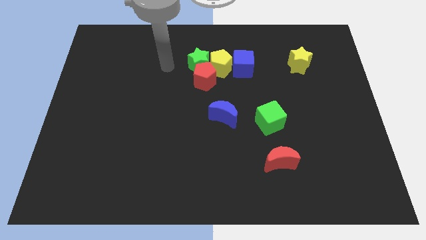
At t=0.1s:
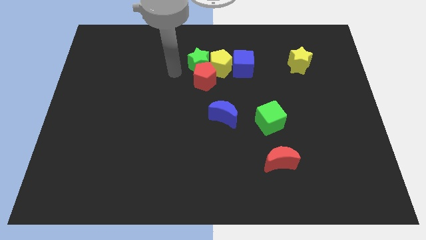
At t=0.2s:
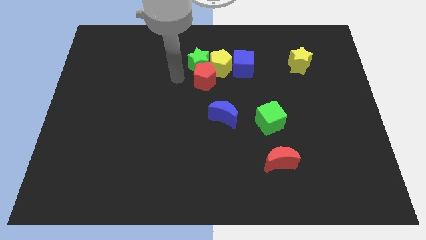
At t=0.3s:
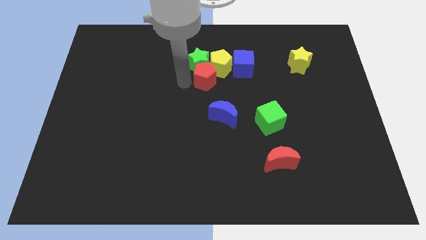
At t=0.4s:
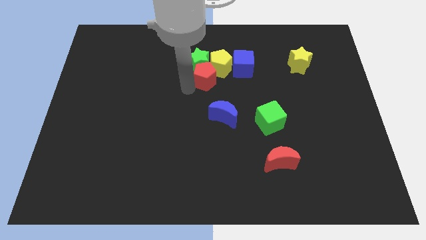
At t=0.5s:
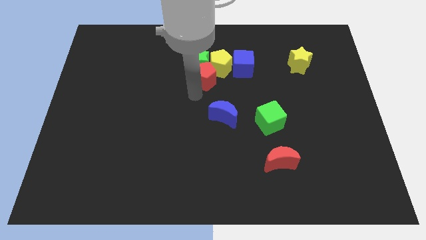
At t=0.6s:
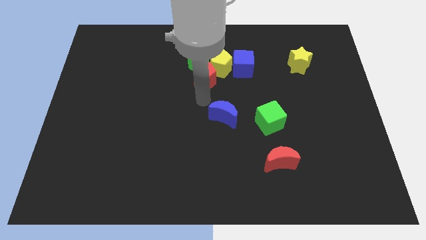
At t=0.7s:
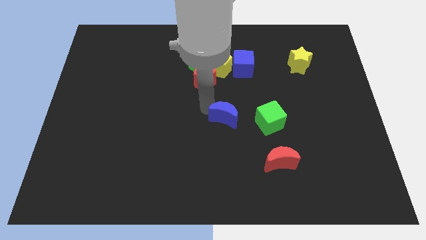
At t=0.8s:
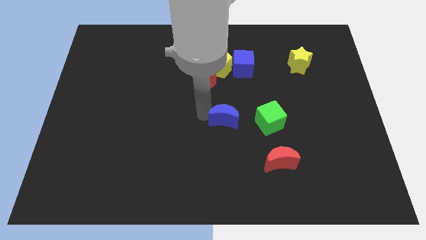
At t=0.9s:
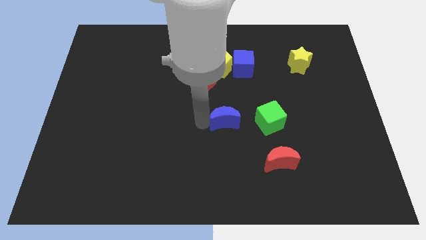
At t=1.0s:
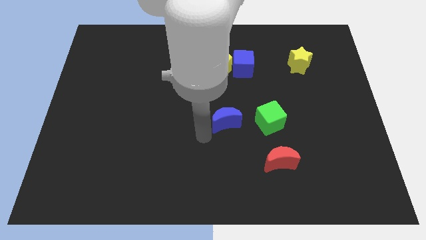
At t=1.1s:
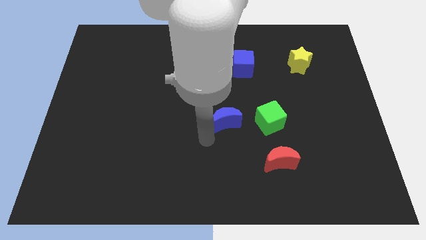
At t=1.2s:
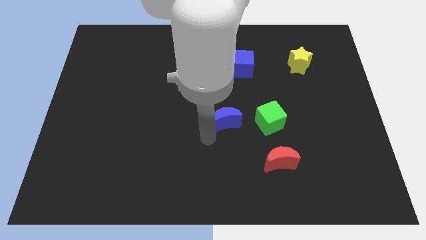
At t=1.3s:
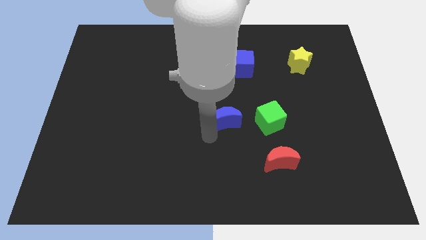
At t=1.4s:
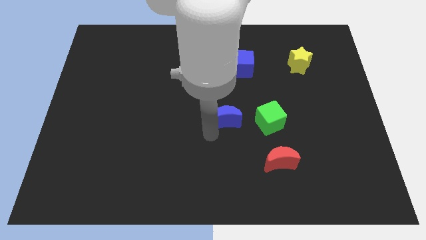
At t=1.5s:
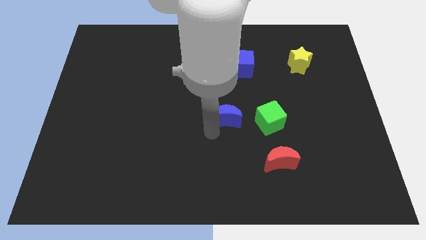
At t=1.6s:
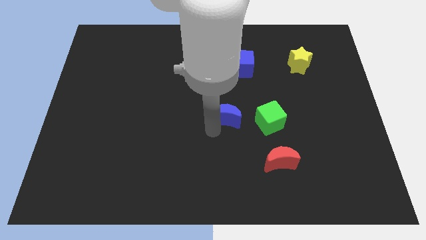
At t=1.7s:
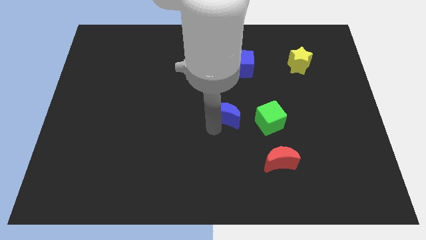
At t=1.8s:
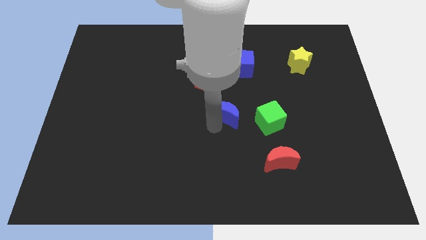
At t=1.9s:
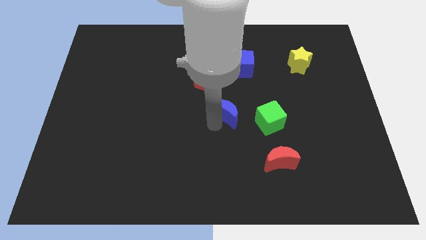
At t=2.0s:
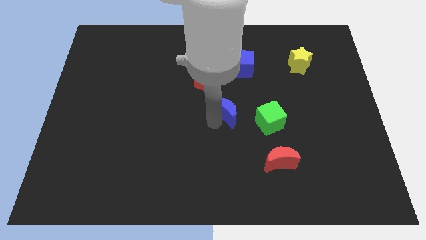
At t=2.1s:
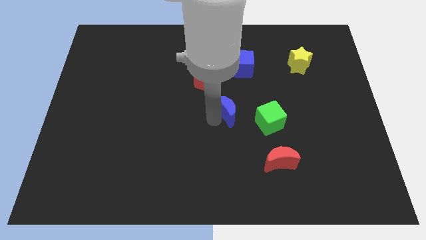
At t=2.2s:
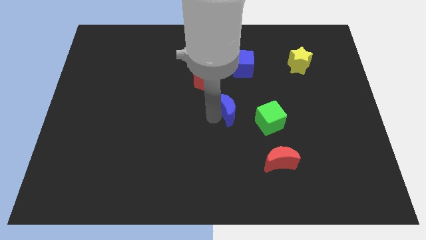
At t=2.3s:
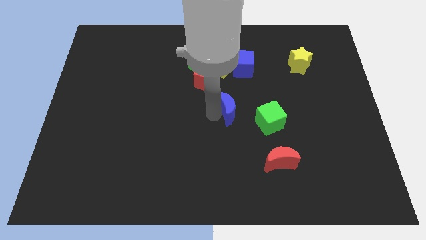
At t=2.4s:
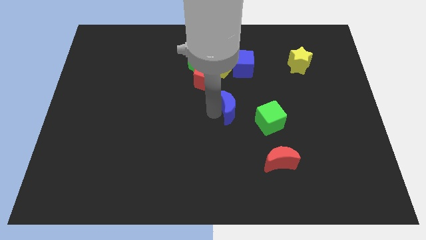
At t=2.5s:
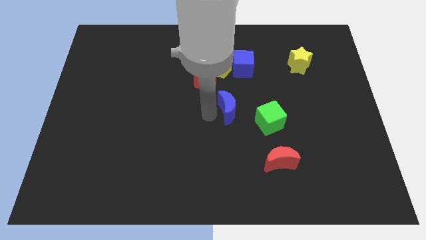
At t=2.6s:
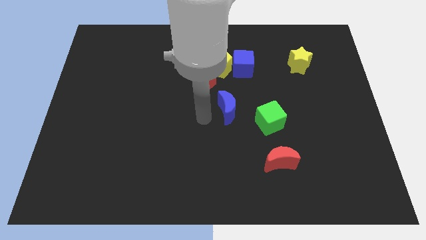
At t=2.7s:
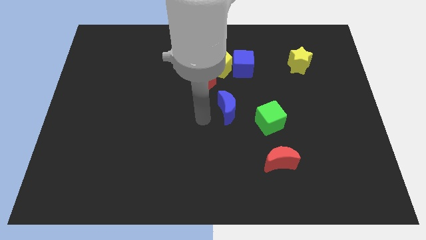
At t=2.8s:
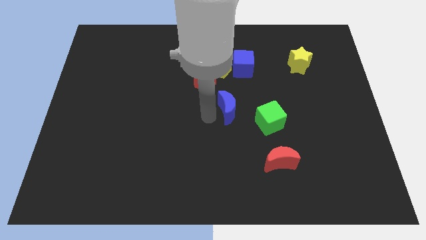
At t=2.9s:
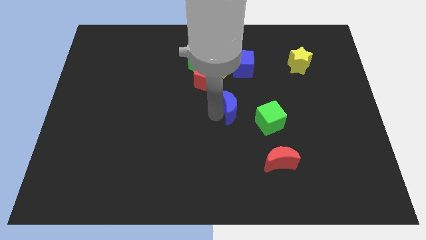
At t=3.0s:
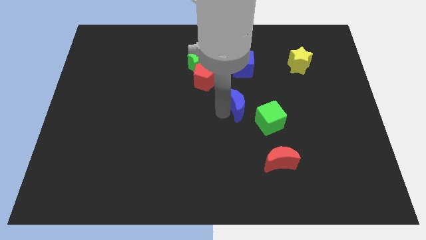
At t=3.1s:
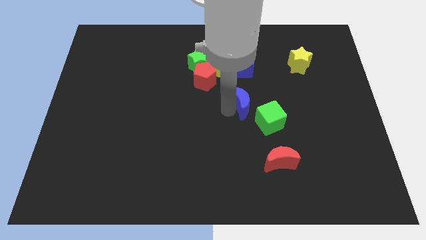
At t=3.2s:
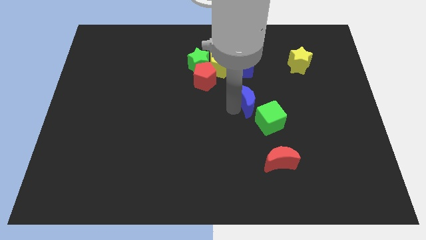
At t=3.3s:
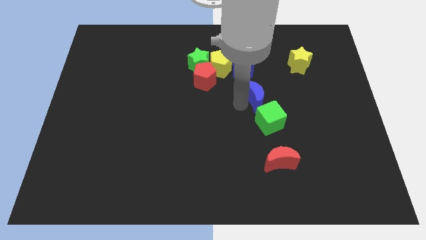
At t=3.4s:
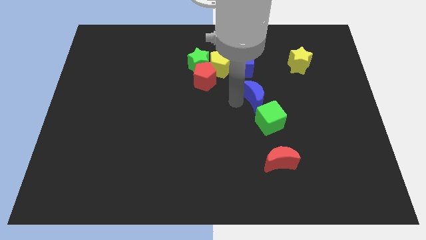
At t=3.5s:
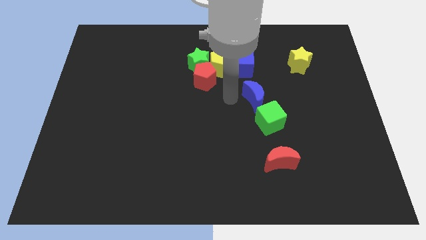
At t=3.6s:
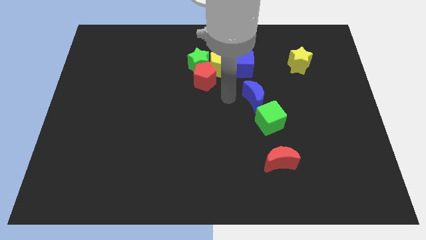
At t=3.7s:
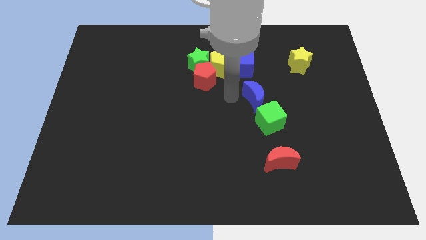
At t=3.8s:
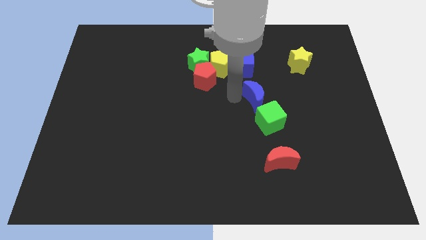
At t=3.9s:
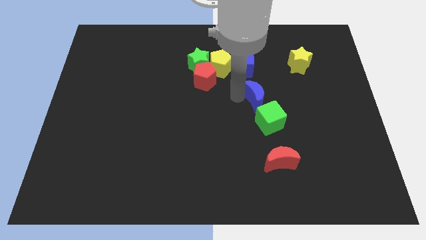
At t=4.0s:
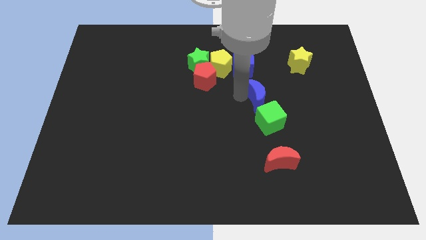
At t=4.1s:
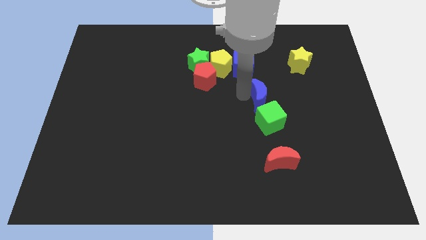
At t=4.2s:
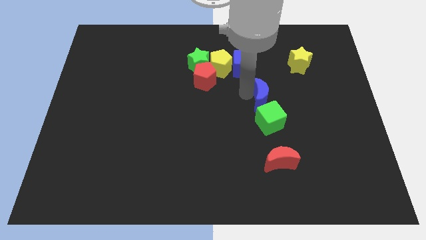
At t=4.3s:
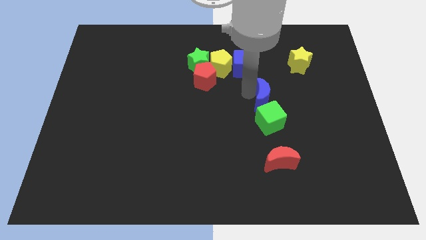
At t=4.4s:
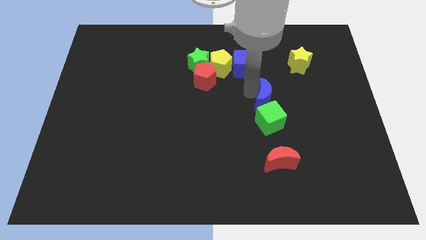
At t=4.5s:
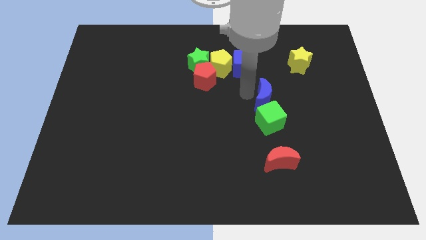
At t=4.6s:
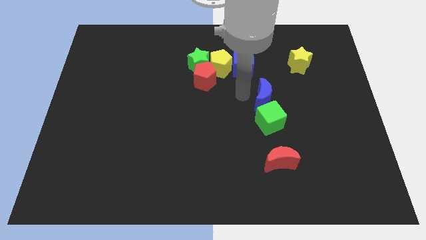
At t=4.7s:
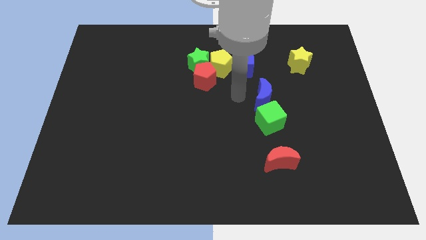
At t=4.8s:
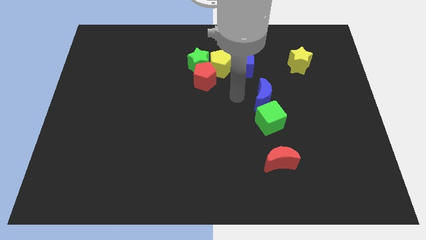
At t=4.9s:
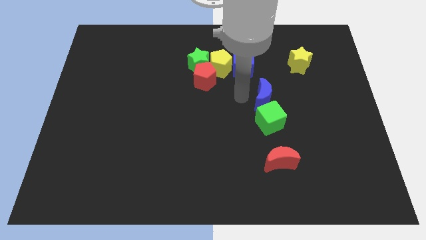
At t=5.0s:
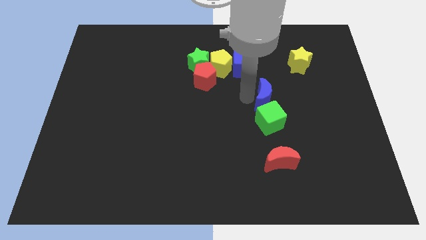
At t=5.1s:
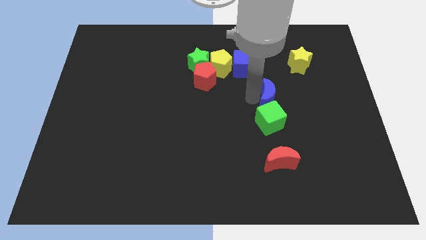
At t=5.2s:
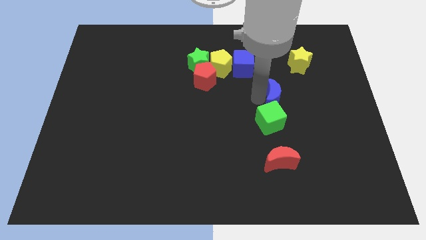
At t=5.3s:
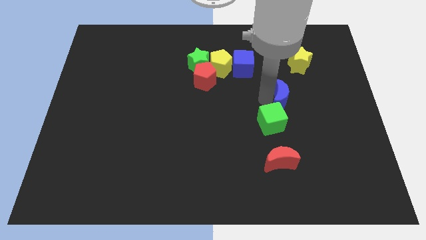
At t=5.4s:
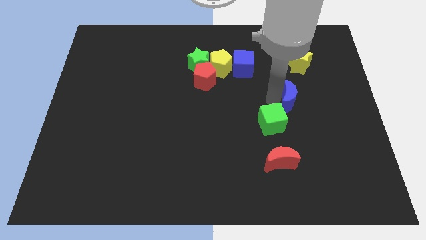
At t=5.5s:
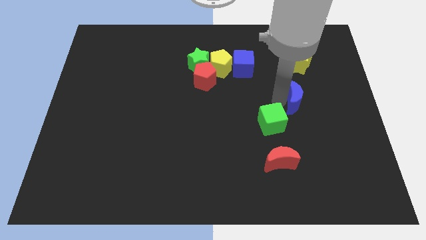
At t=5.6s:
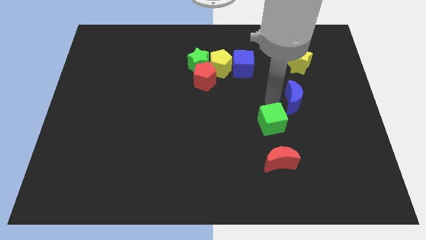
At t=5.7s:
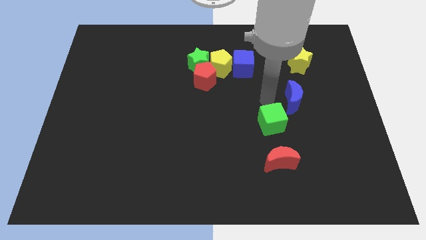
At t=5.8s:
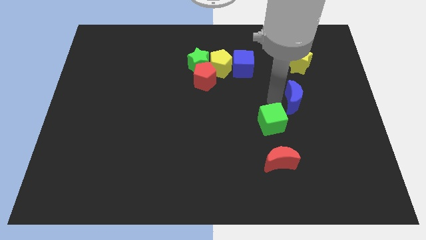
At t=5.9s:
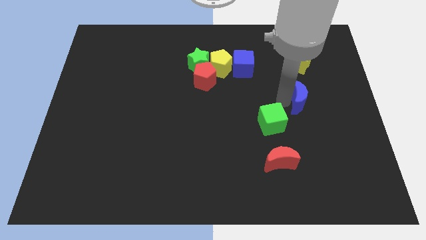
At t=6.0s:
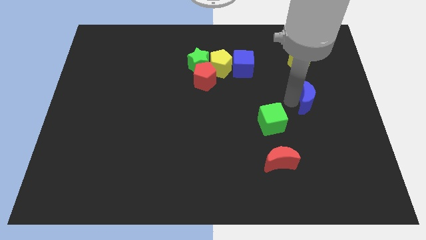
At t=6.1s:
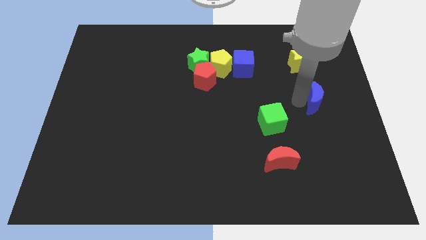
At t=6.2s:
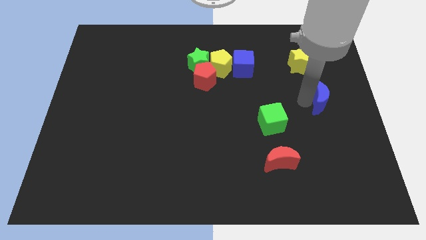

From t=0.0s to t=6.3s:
slide the blue moon to the right side
